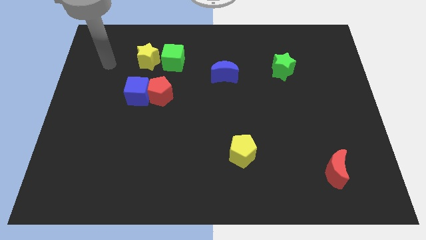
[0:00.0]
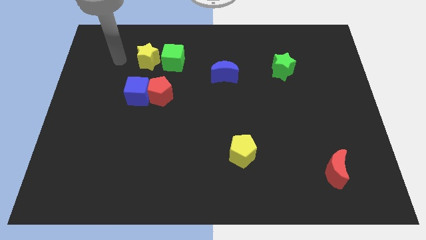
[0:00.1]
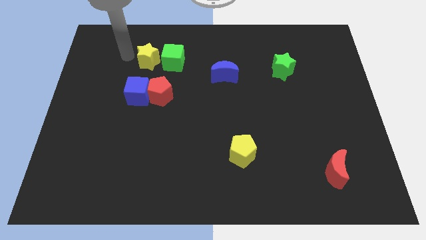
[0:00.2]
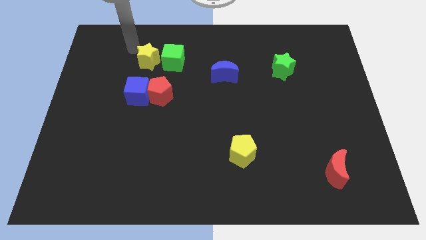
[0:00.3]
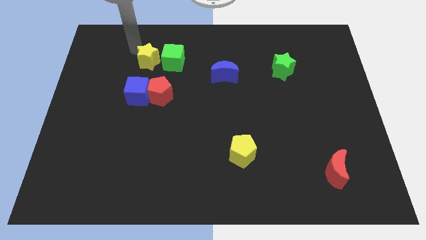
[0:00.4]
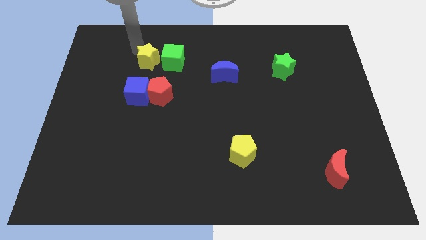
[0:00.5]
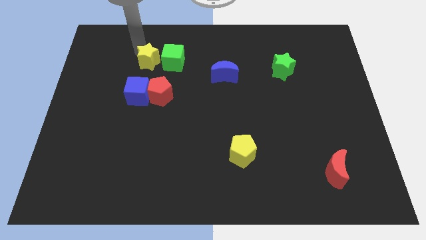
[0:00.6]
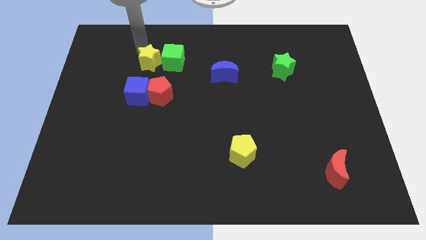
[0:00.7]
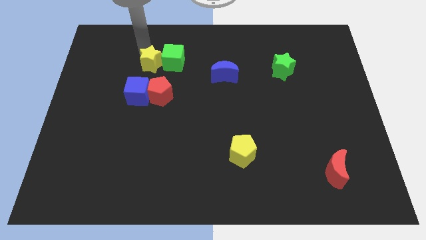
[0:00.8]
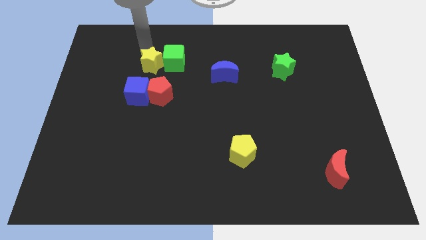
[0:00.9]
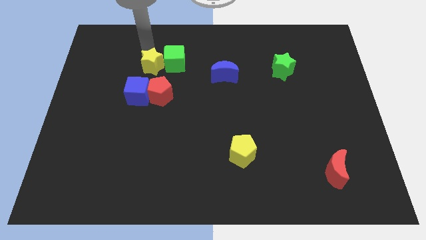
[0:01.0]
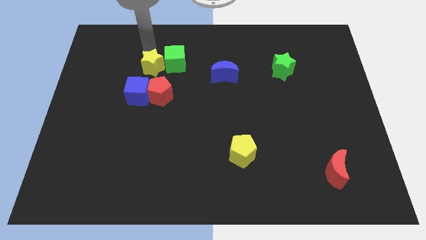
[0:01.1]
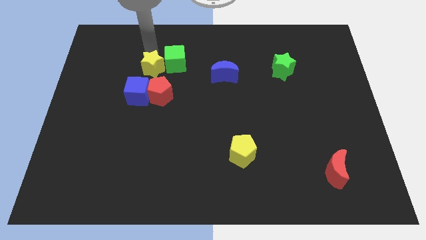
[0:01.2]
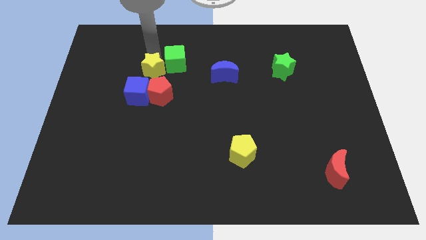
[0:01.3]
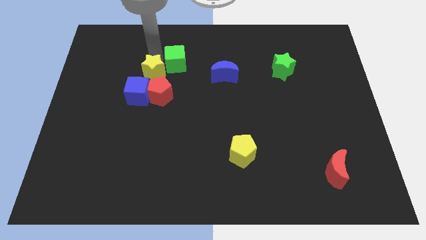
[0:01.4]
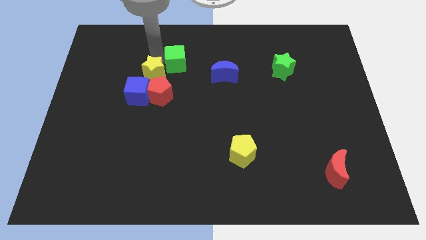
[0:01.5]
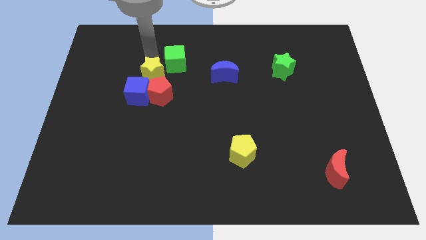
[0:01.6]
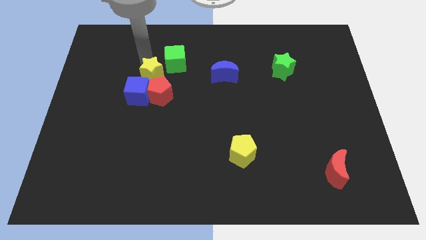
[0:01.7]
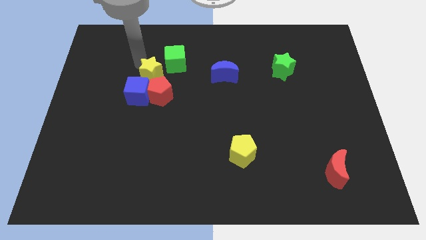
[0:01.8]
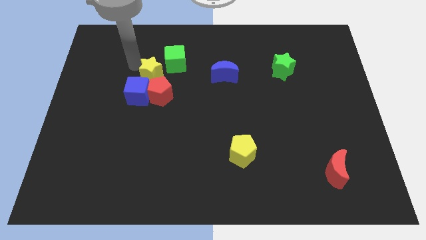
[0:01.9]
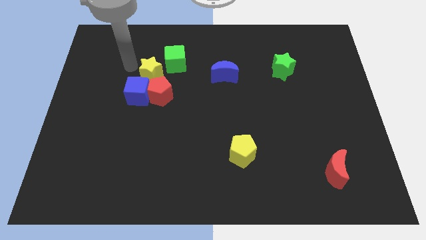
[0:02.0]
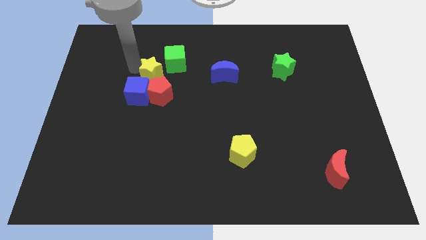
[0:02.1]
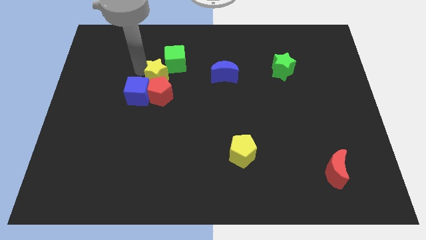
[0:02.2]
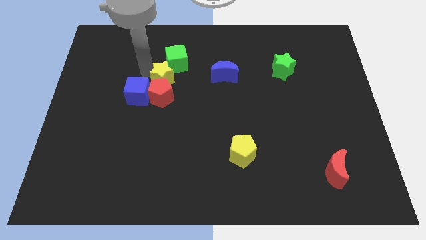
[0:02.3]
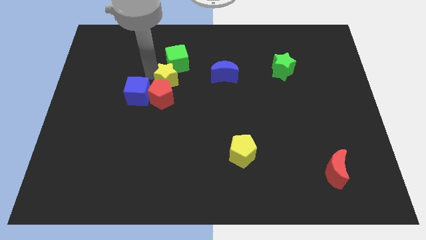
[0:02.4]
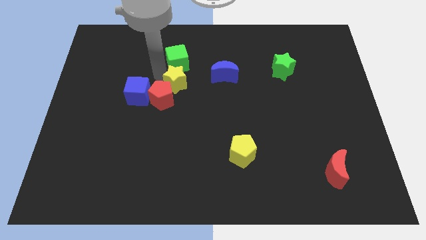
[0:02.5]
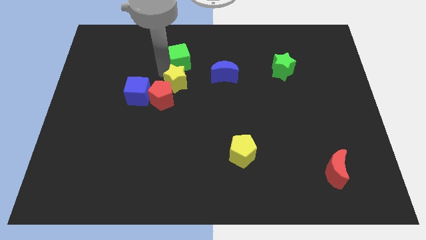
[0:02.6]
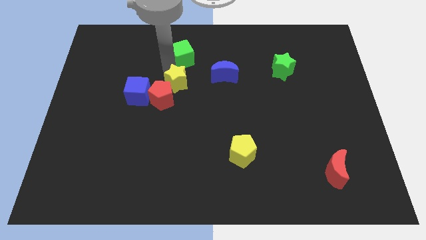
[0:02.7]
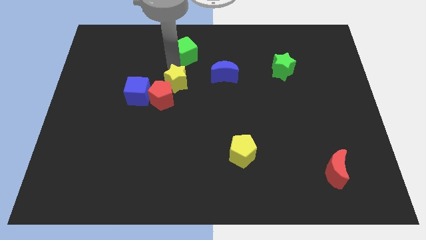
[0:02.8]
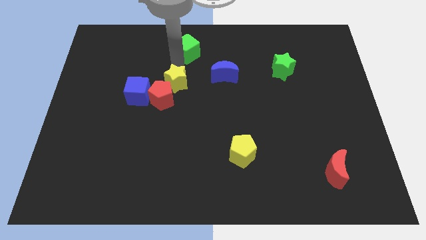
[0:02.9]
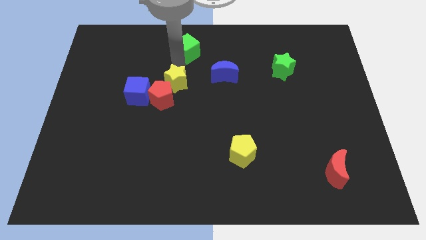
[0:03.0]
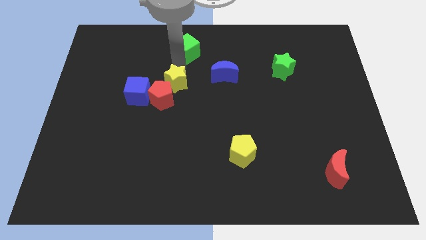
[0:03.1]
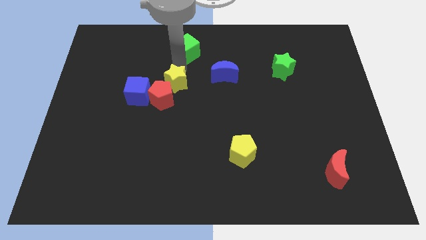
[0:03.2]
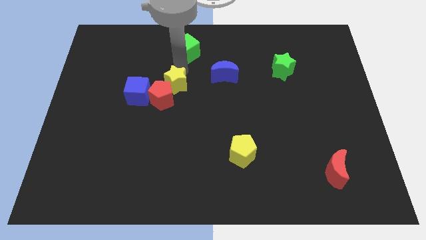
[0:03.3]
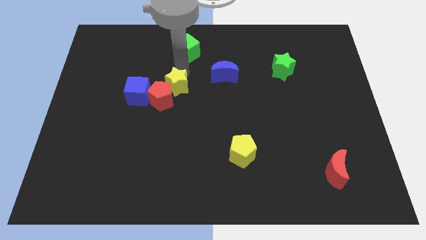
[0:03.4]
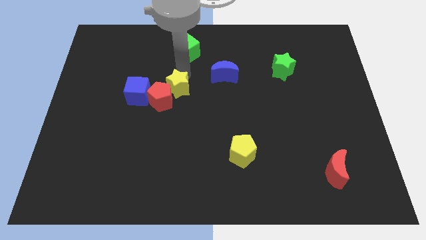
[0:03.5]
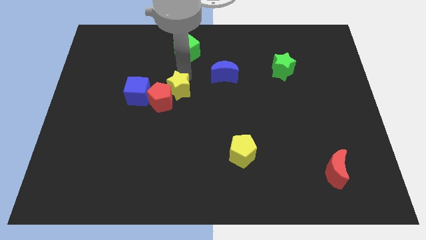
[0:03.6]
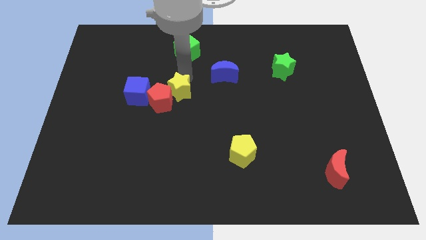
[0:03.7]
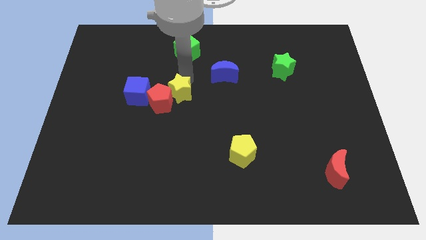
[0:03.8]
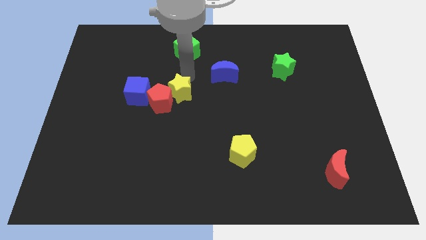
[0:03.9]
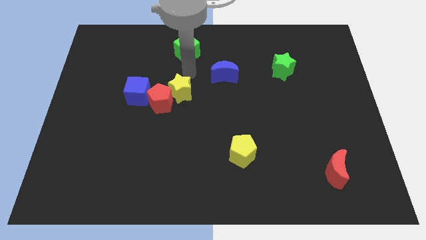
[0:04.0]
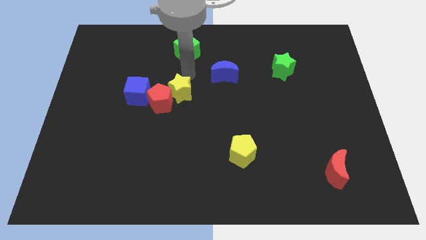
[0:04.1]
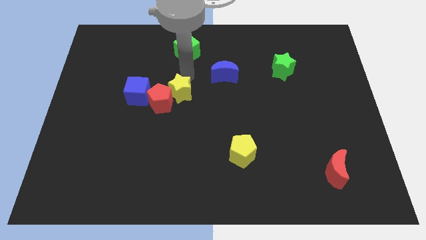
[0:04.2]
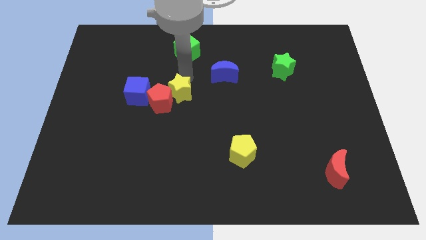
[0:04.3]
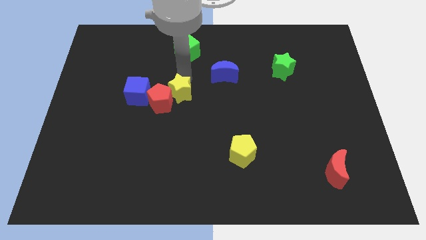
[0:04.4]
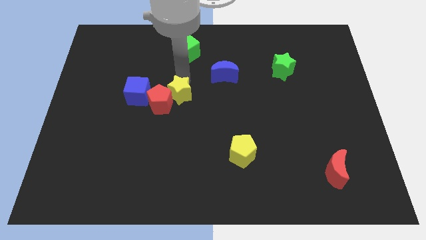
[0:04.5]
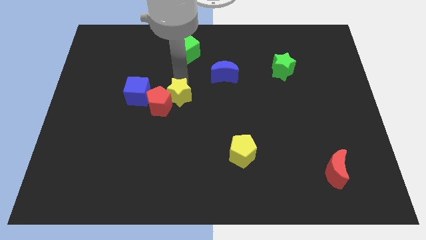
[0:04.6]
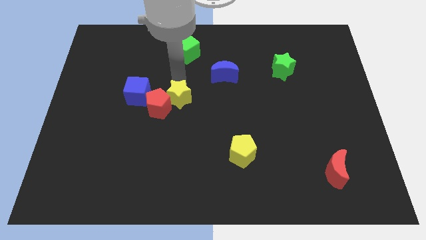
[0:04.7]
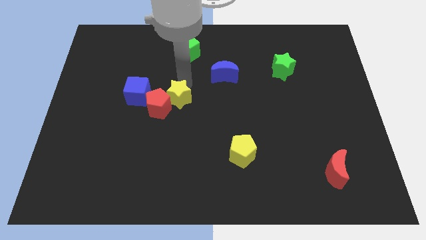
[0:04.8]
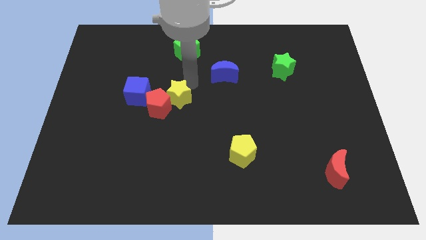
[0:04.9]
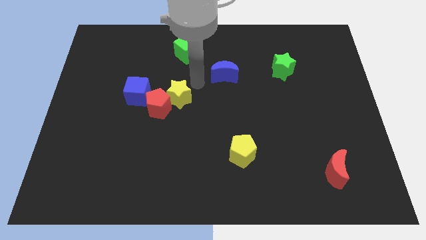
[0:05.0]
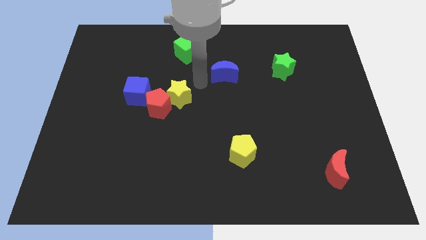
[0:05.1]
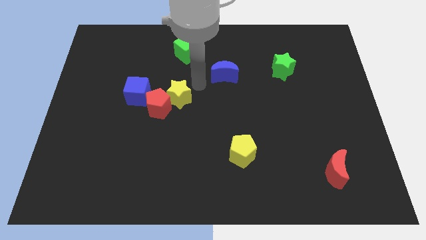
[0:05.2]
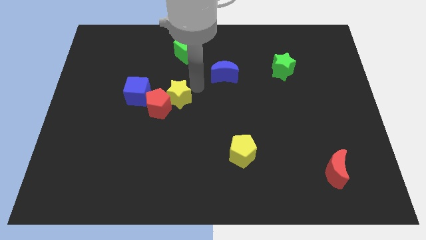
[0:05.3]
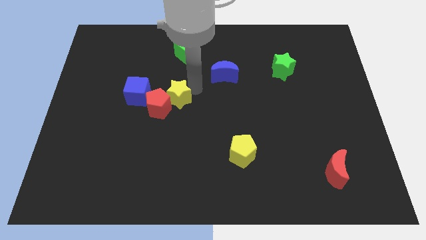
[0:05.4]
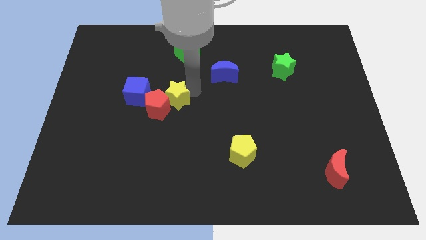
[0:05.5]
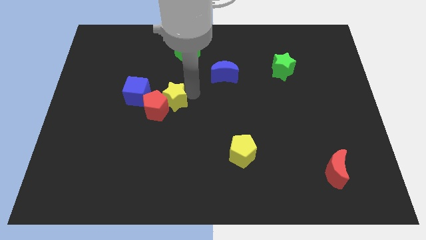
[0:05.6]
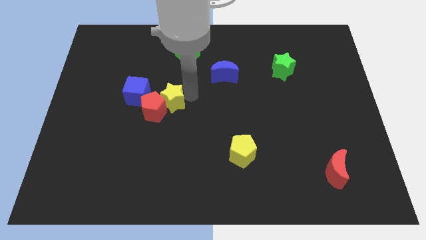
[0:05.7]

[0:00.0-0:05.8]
push the yellow star to the bottom right side of the blue cube

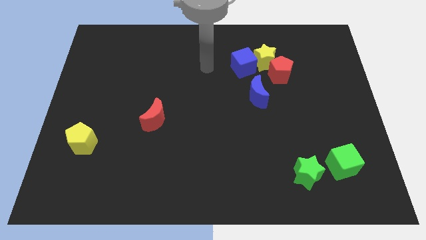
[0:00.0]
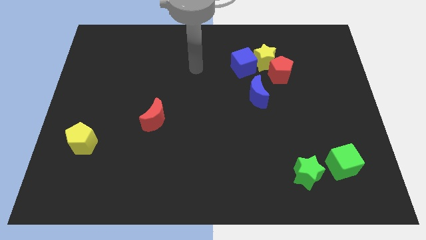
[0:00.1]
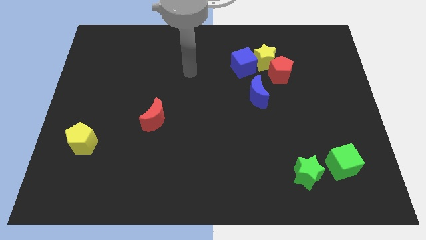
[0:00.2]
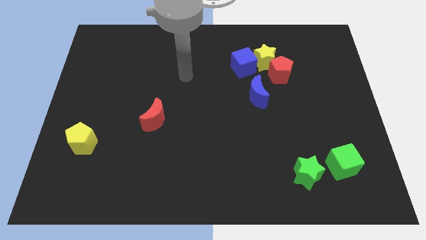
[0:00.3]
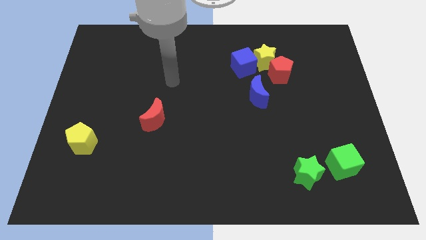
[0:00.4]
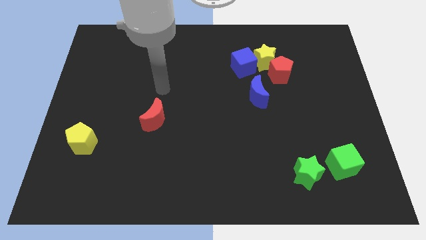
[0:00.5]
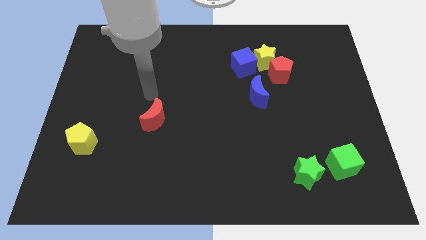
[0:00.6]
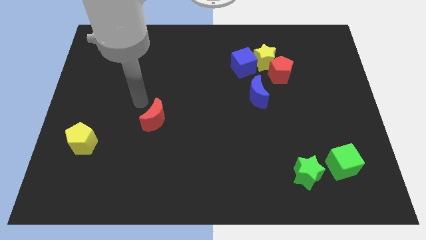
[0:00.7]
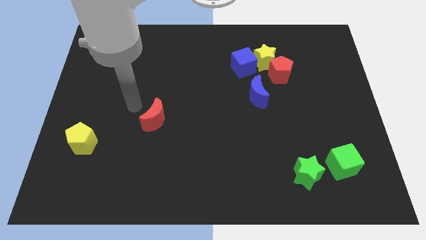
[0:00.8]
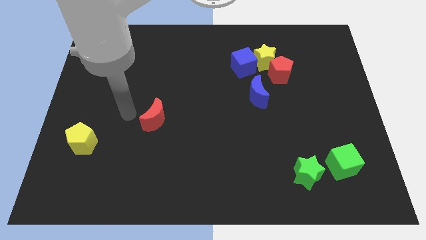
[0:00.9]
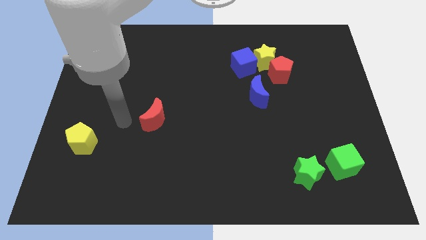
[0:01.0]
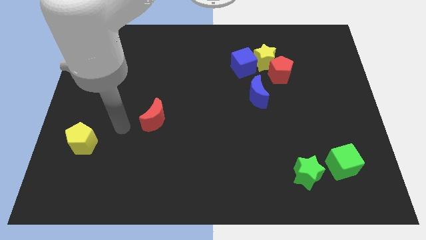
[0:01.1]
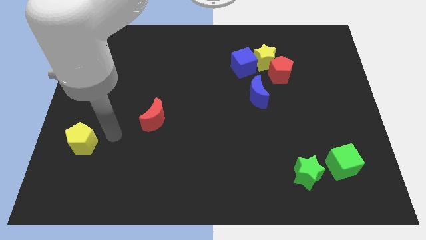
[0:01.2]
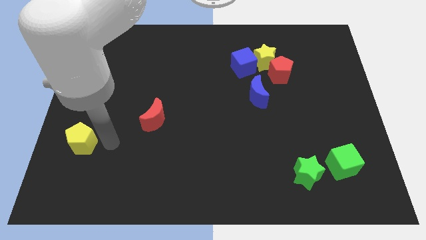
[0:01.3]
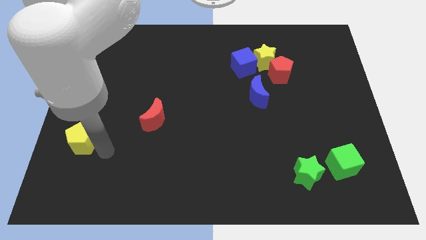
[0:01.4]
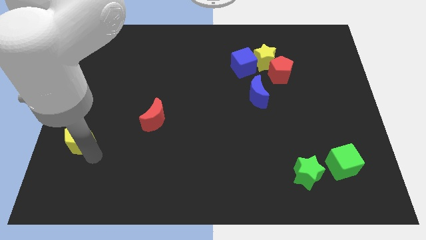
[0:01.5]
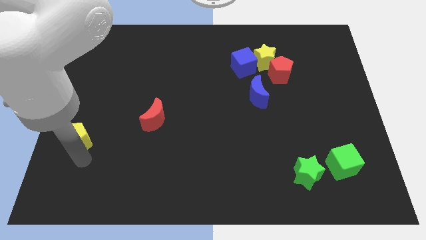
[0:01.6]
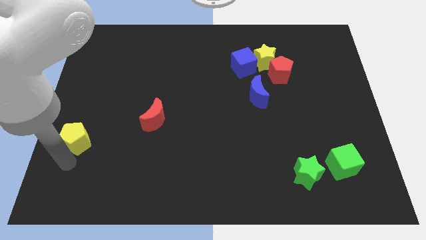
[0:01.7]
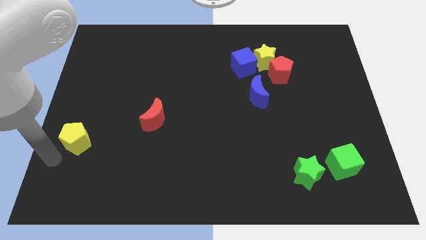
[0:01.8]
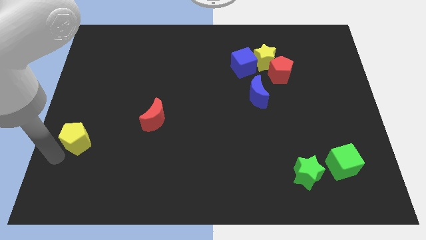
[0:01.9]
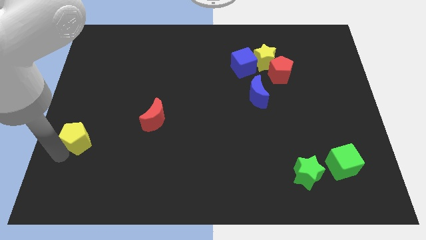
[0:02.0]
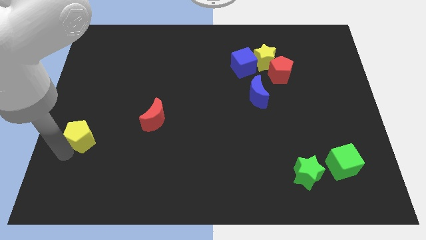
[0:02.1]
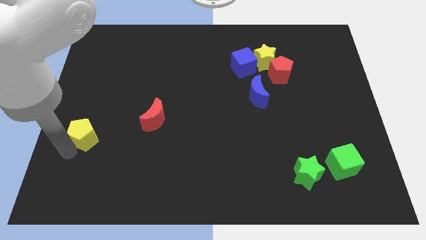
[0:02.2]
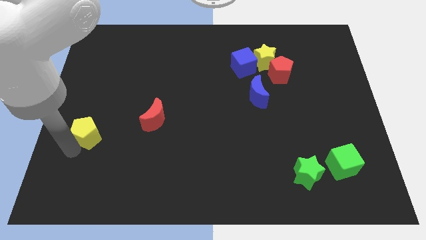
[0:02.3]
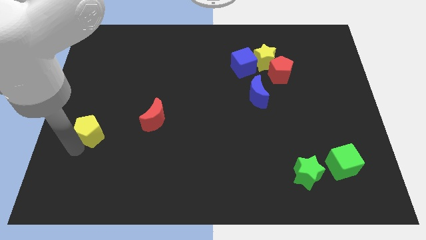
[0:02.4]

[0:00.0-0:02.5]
push the yellow pentagon to the left of the red moon
